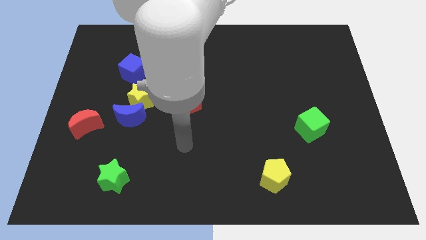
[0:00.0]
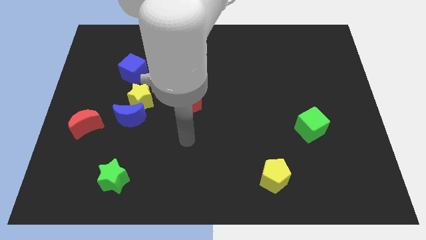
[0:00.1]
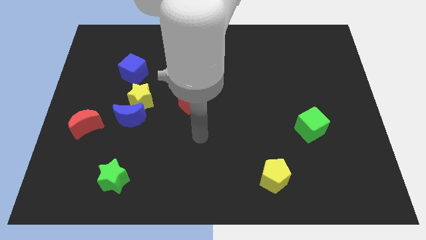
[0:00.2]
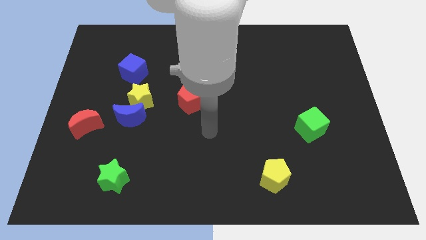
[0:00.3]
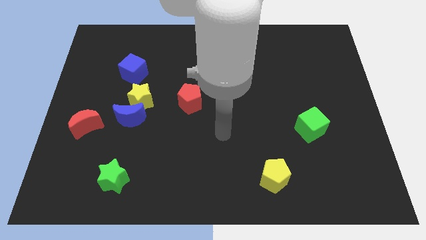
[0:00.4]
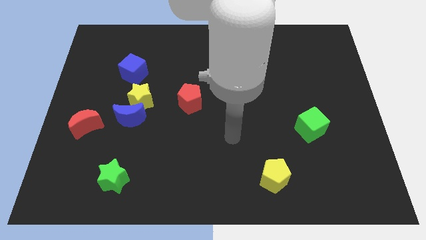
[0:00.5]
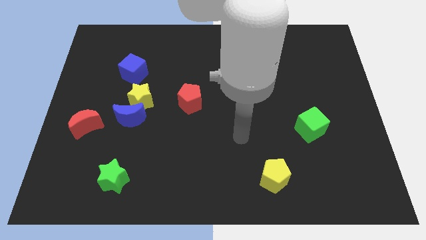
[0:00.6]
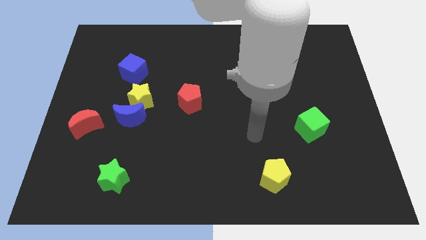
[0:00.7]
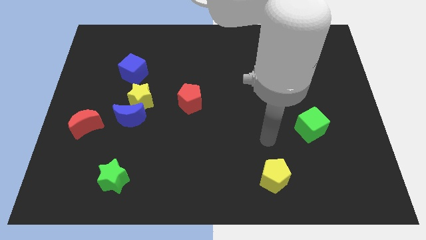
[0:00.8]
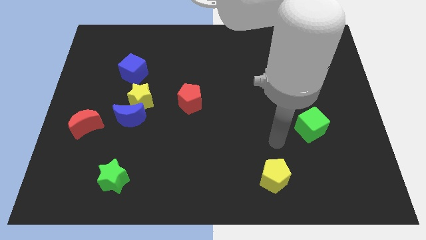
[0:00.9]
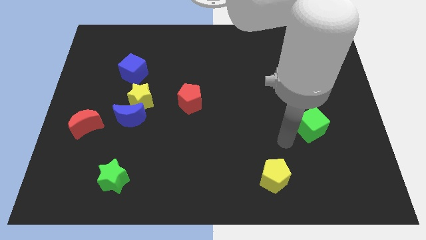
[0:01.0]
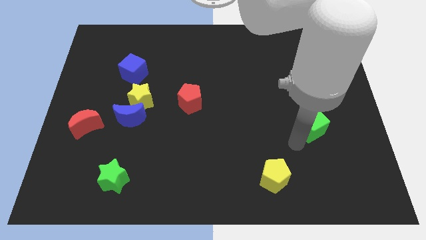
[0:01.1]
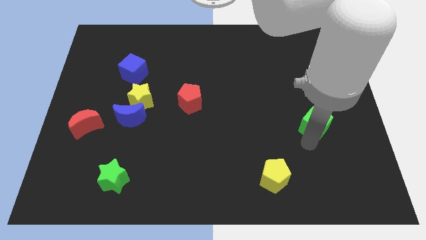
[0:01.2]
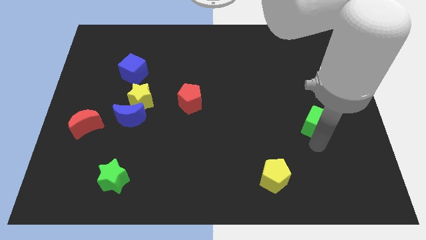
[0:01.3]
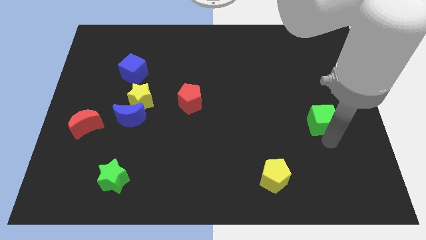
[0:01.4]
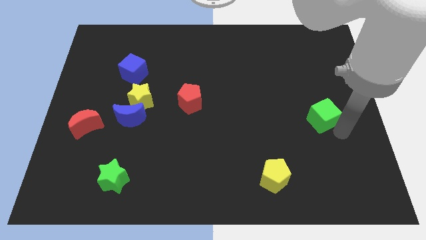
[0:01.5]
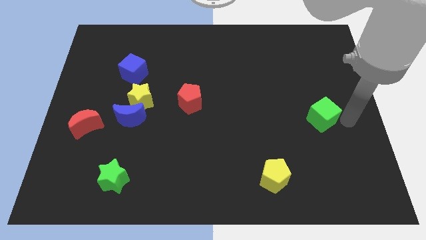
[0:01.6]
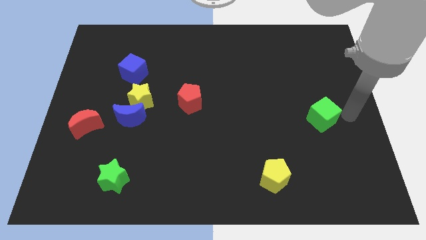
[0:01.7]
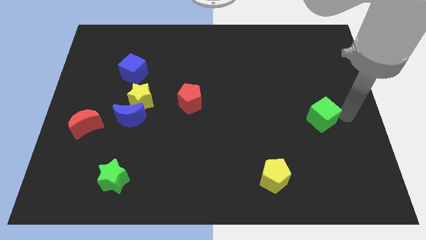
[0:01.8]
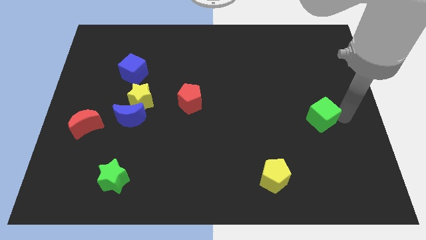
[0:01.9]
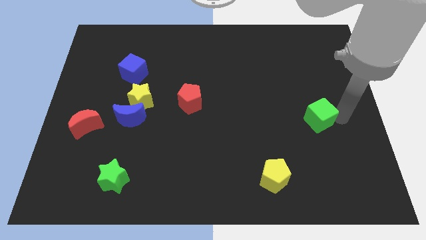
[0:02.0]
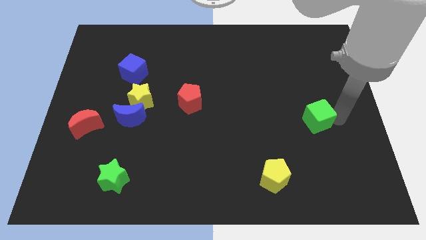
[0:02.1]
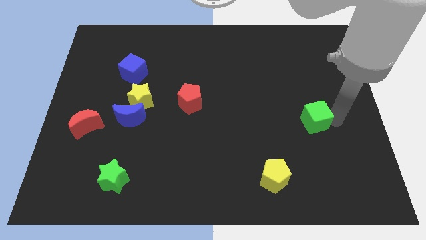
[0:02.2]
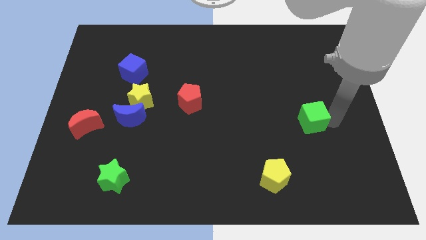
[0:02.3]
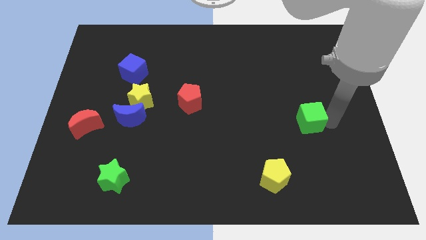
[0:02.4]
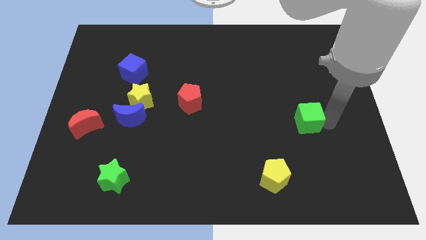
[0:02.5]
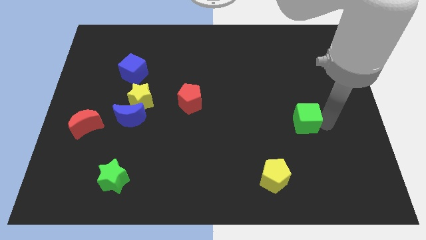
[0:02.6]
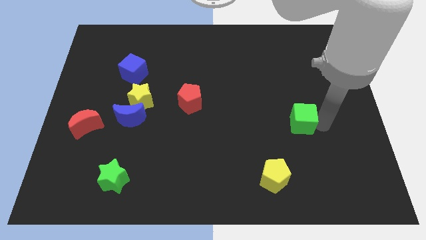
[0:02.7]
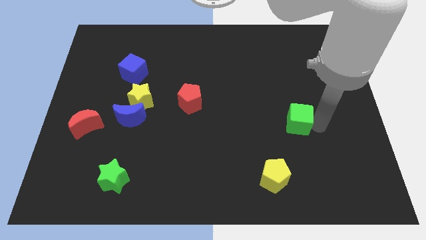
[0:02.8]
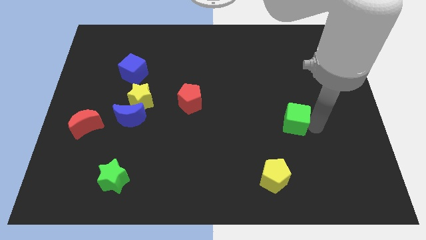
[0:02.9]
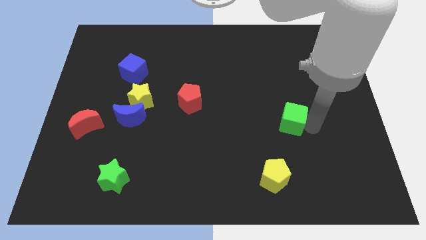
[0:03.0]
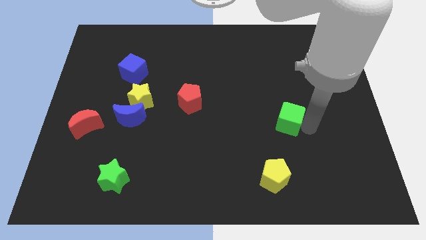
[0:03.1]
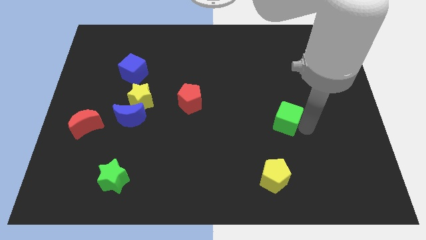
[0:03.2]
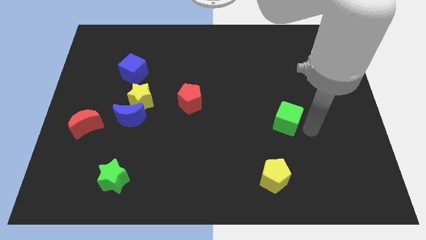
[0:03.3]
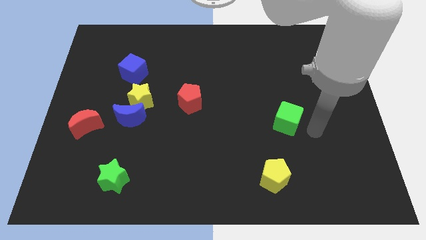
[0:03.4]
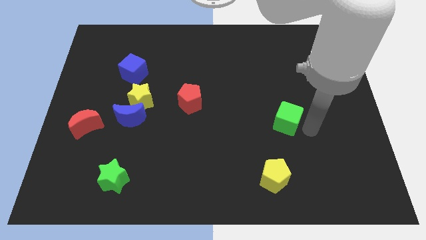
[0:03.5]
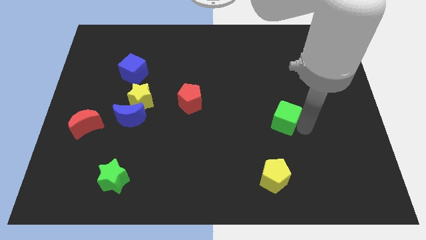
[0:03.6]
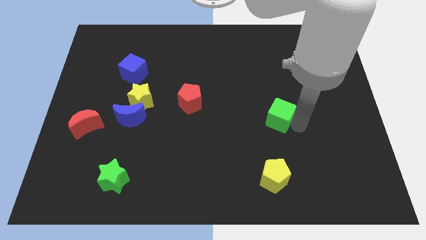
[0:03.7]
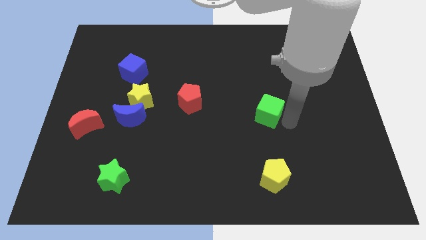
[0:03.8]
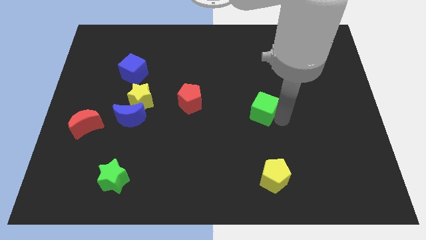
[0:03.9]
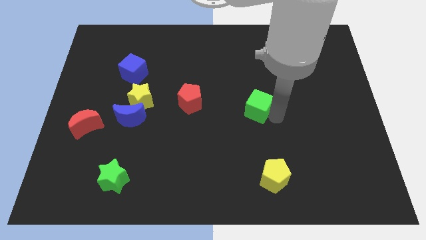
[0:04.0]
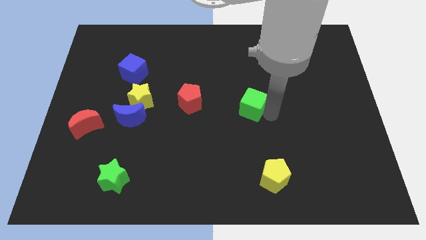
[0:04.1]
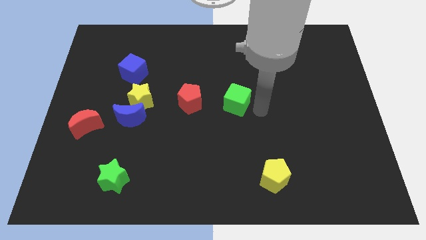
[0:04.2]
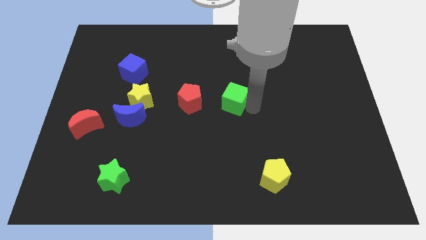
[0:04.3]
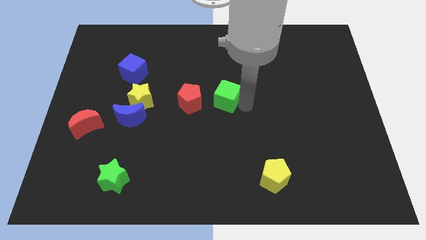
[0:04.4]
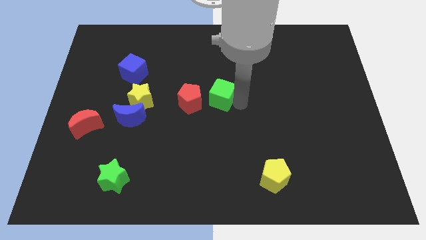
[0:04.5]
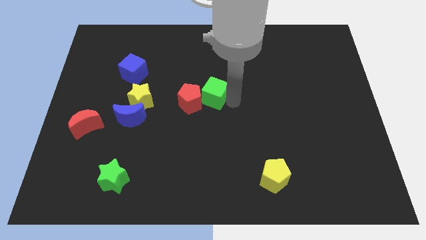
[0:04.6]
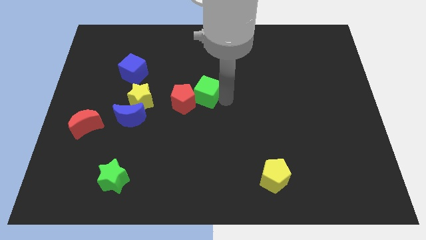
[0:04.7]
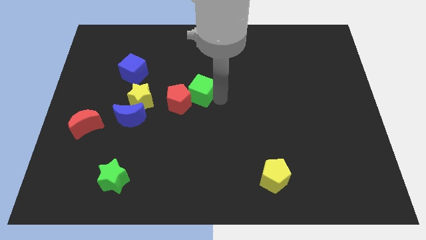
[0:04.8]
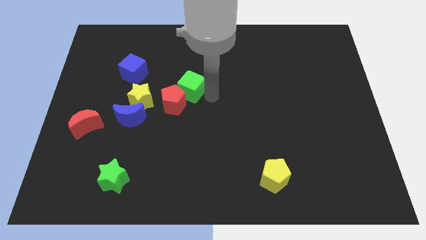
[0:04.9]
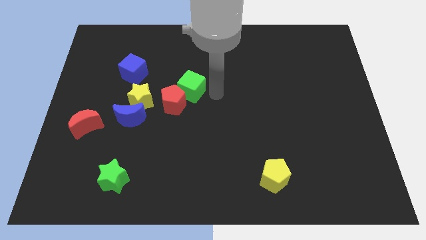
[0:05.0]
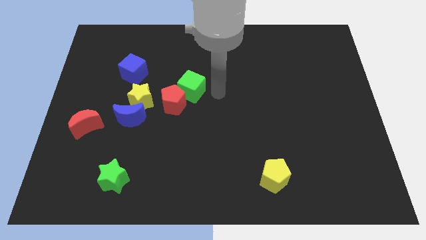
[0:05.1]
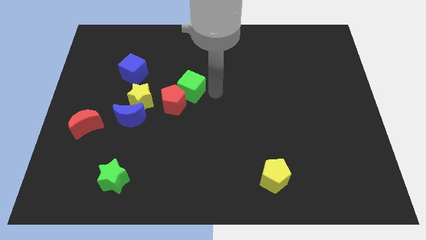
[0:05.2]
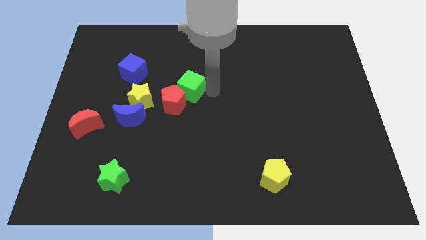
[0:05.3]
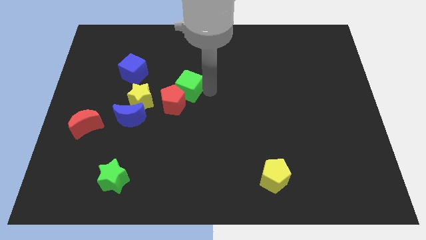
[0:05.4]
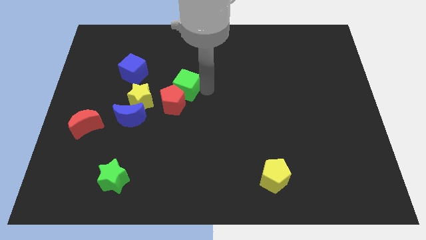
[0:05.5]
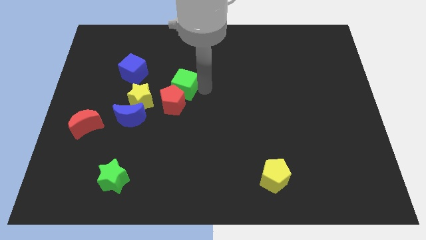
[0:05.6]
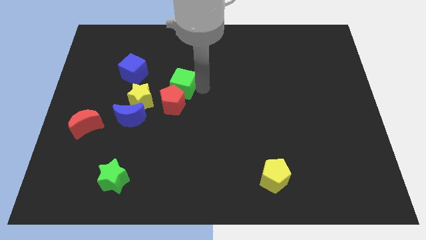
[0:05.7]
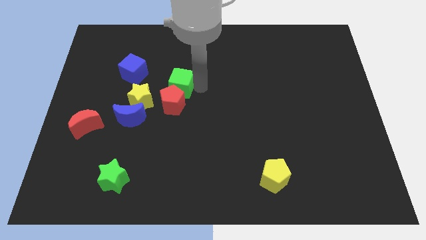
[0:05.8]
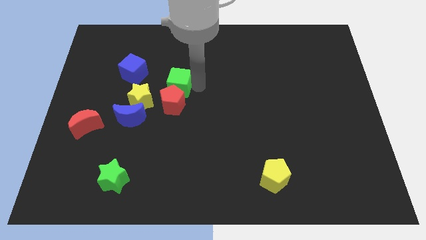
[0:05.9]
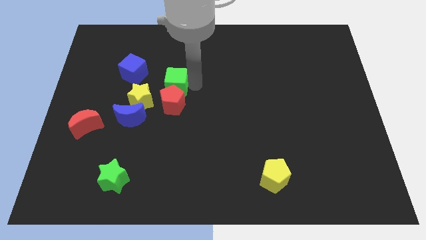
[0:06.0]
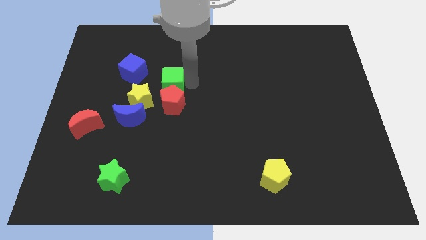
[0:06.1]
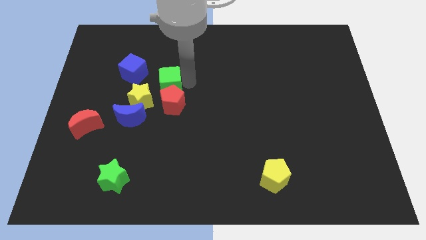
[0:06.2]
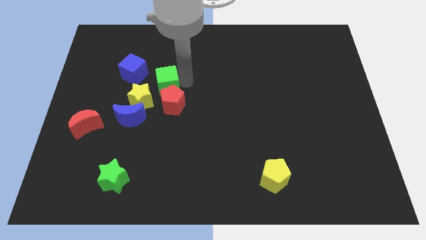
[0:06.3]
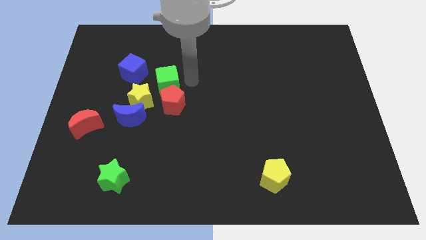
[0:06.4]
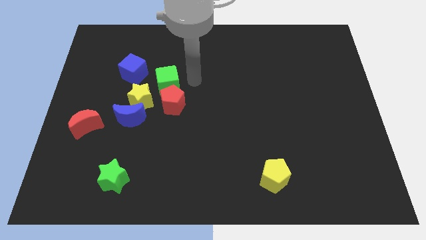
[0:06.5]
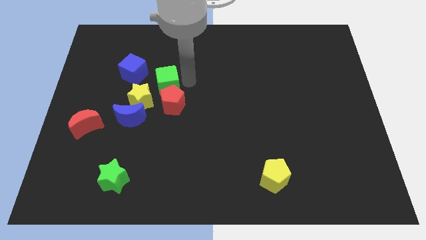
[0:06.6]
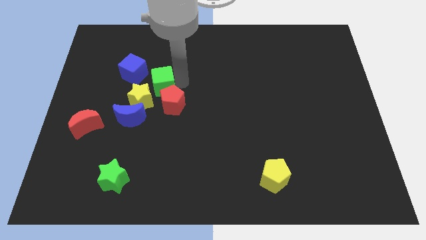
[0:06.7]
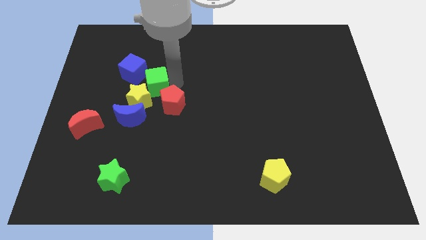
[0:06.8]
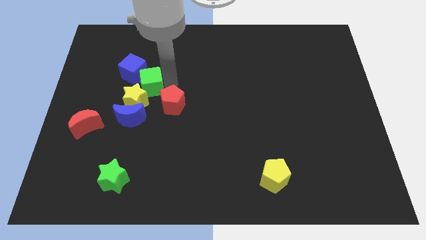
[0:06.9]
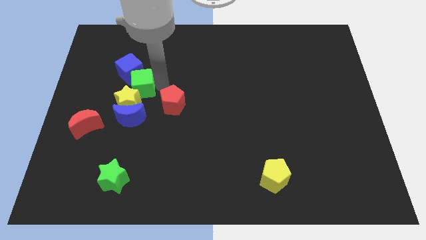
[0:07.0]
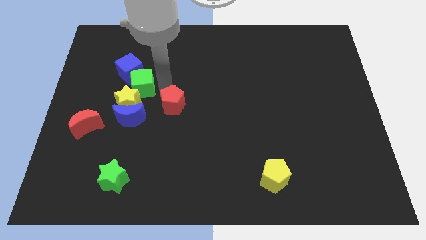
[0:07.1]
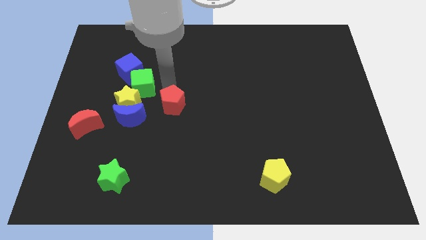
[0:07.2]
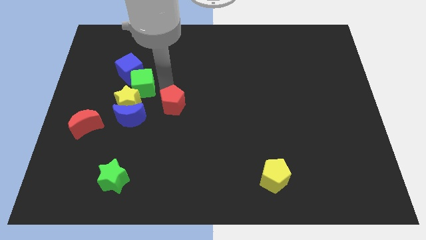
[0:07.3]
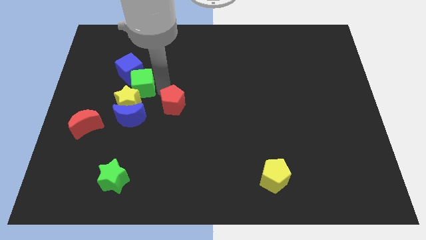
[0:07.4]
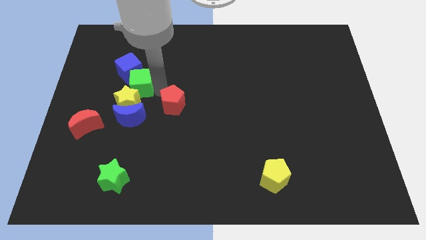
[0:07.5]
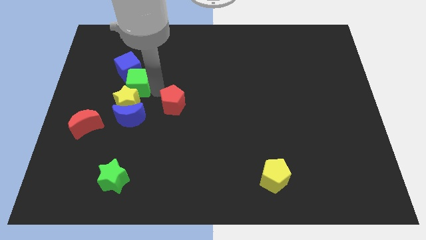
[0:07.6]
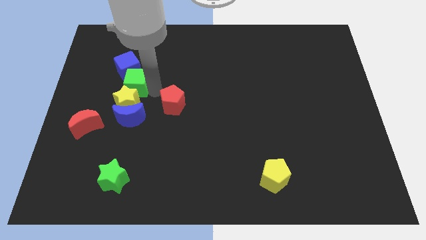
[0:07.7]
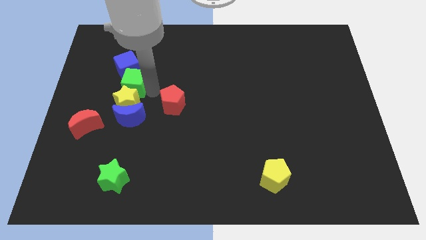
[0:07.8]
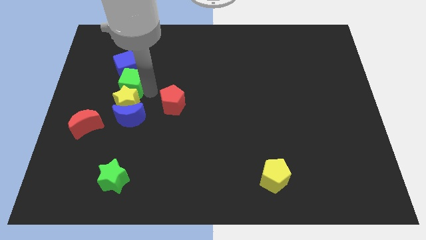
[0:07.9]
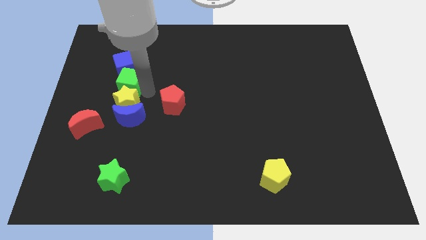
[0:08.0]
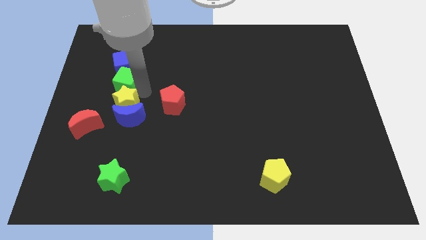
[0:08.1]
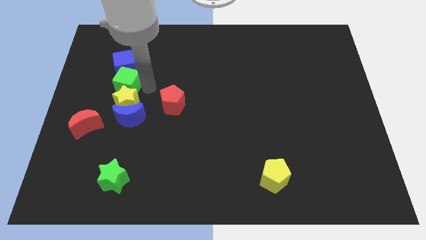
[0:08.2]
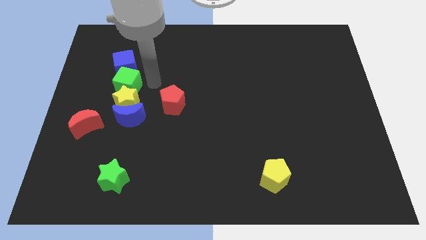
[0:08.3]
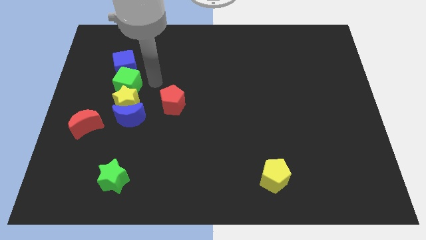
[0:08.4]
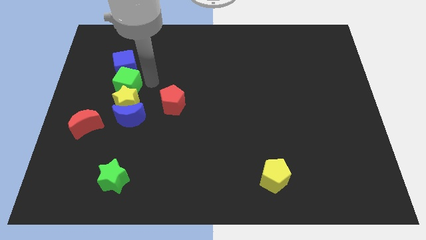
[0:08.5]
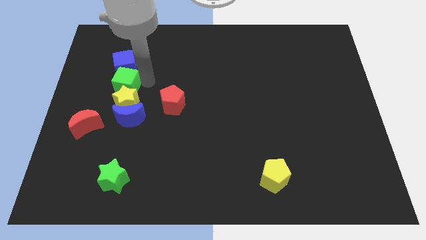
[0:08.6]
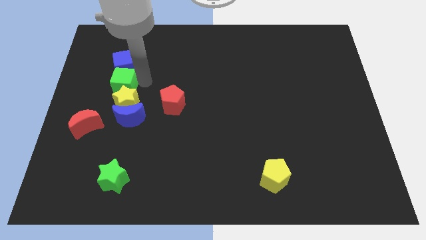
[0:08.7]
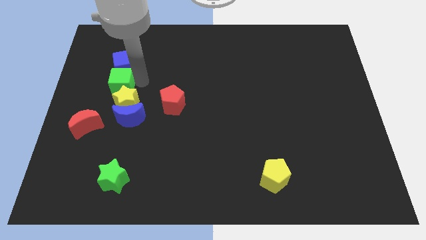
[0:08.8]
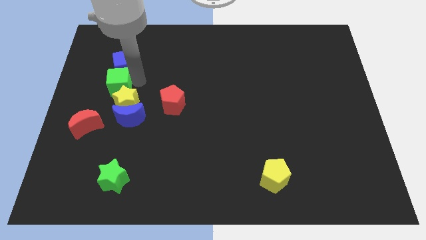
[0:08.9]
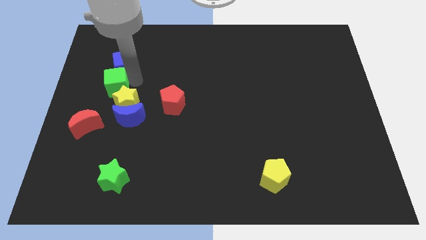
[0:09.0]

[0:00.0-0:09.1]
move the green cube to the top side of the red moon
